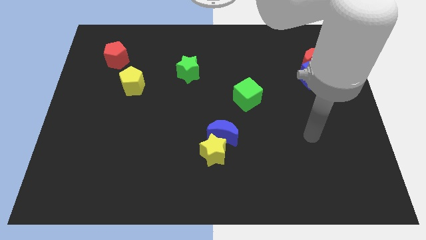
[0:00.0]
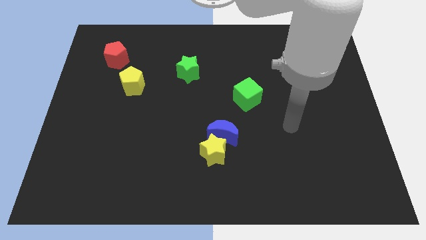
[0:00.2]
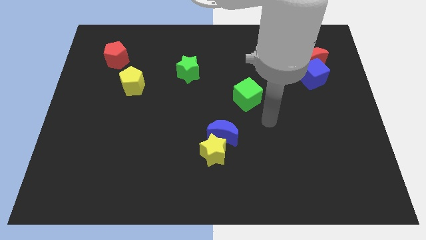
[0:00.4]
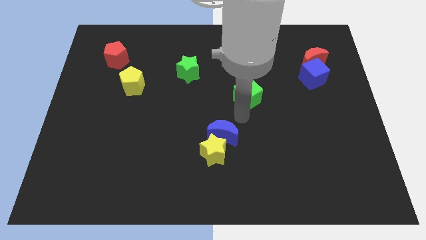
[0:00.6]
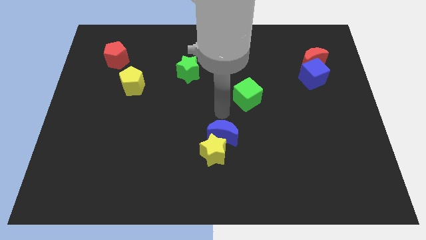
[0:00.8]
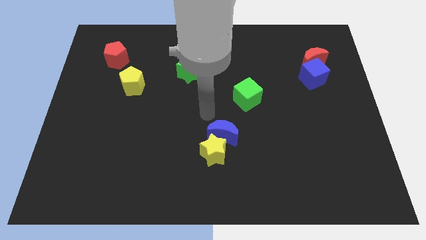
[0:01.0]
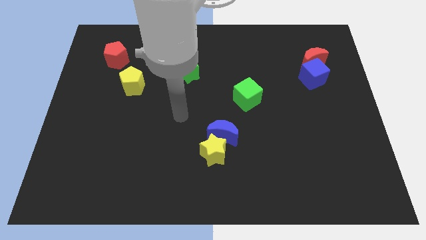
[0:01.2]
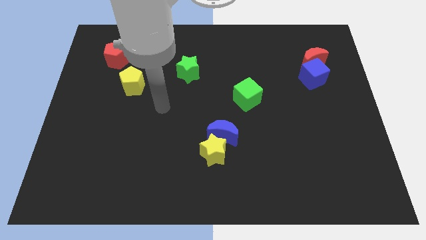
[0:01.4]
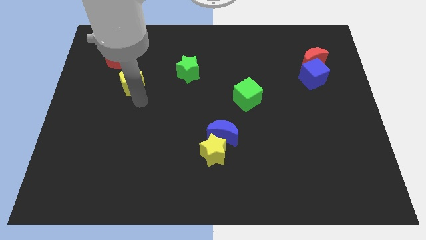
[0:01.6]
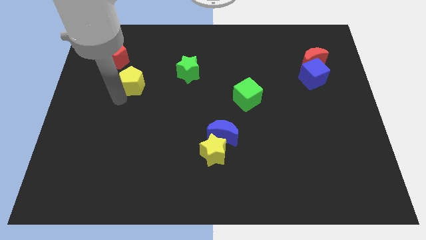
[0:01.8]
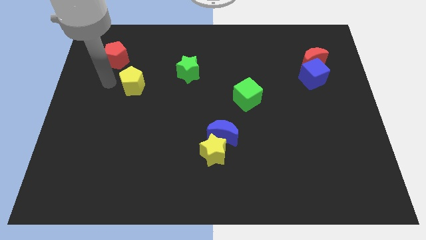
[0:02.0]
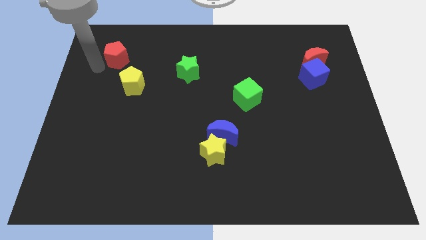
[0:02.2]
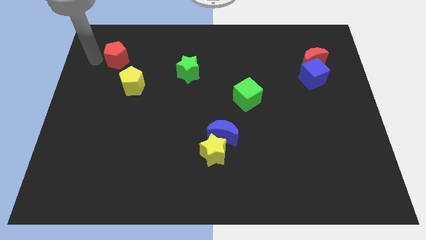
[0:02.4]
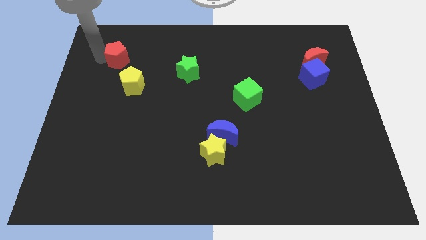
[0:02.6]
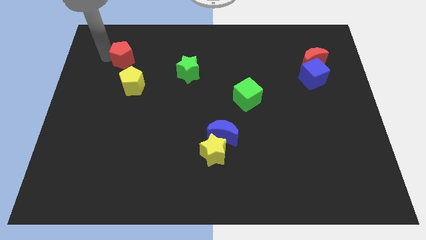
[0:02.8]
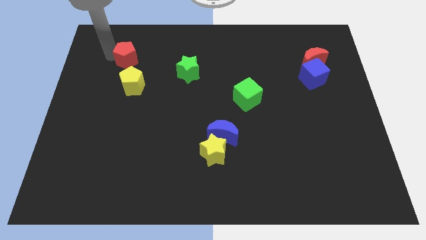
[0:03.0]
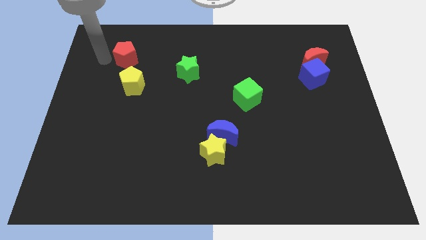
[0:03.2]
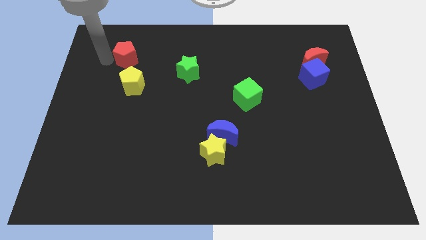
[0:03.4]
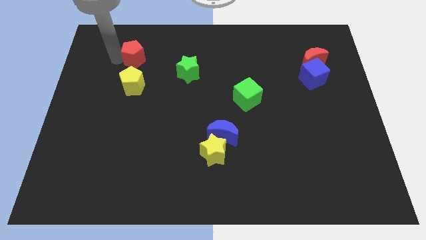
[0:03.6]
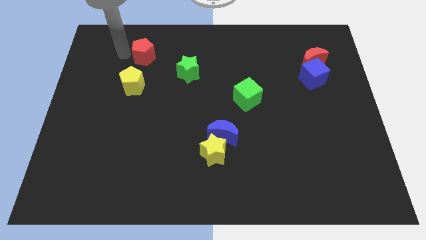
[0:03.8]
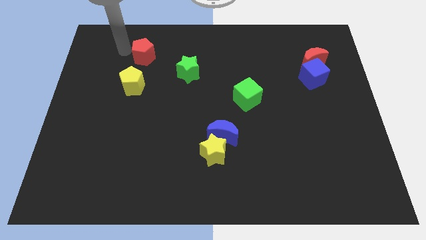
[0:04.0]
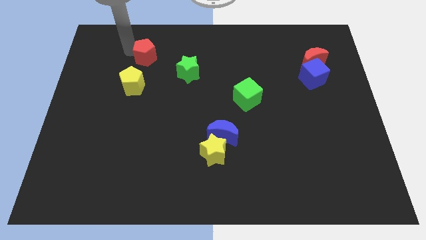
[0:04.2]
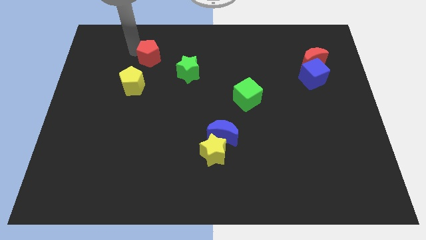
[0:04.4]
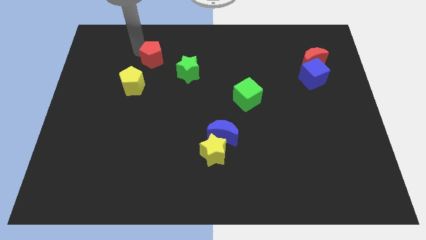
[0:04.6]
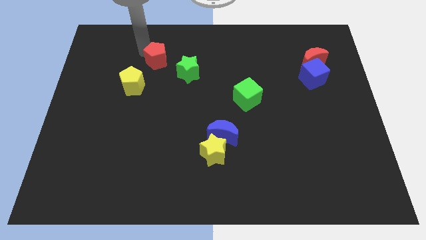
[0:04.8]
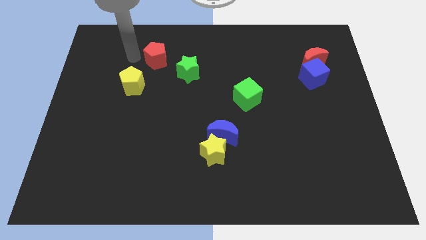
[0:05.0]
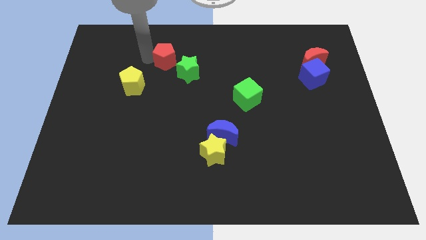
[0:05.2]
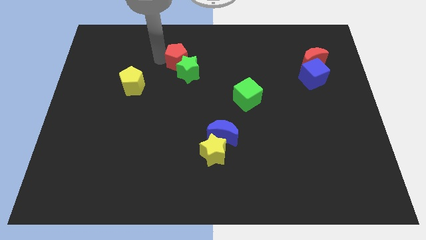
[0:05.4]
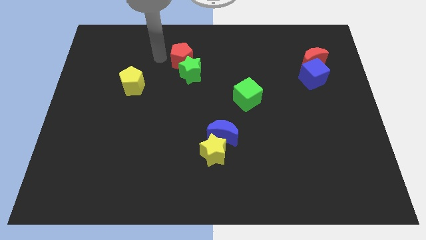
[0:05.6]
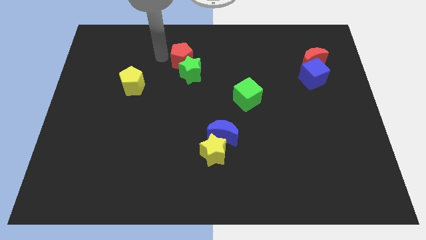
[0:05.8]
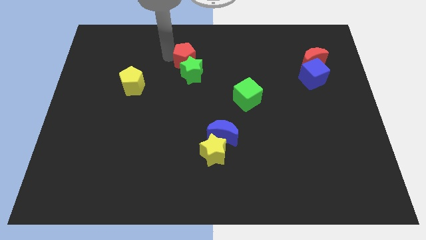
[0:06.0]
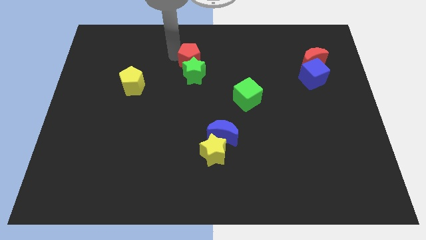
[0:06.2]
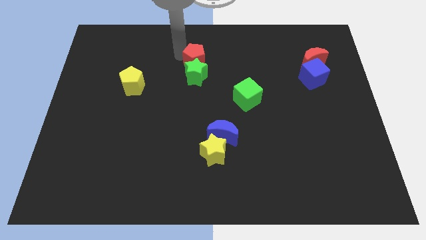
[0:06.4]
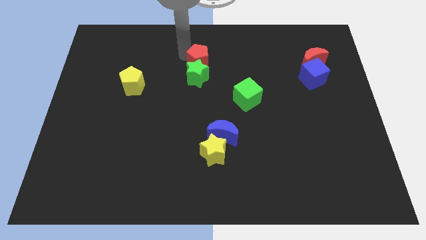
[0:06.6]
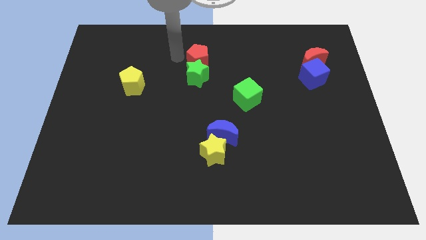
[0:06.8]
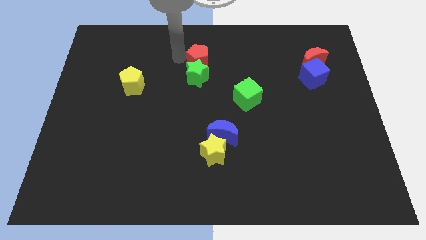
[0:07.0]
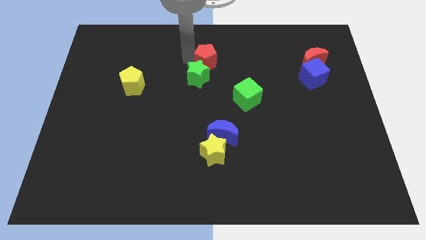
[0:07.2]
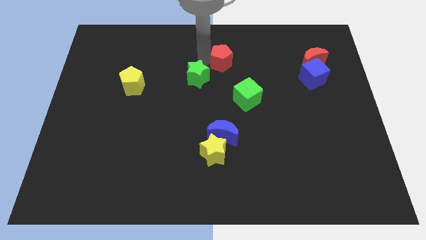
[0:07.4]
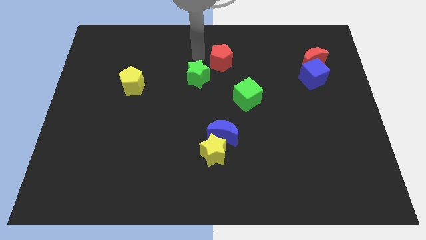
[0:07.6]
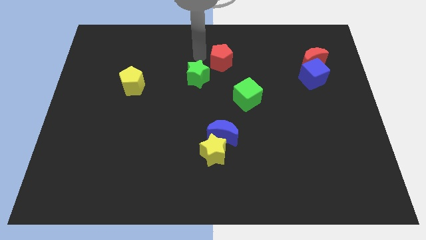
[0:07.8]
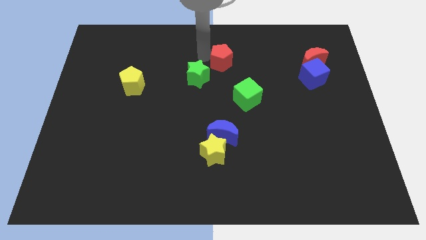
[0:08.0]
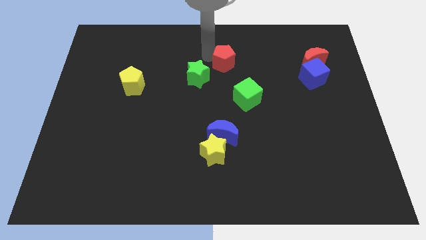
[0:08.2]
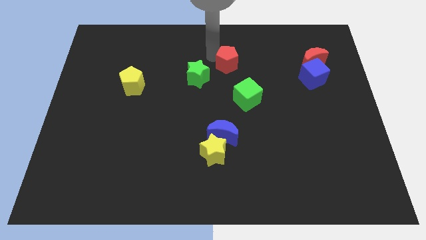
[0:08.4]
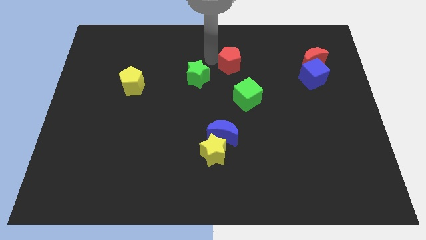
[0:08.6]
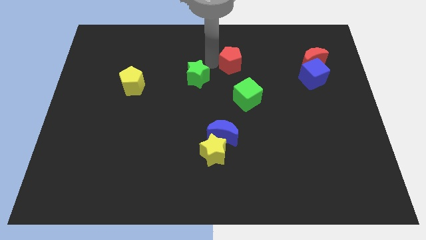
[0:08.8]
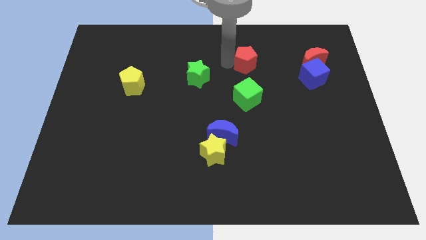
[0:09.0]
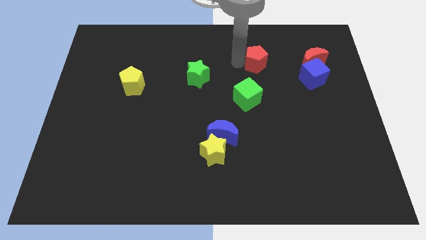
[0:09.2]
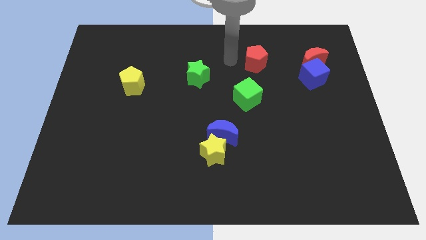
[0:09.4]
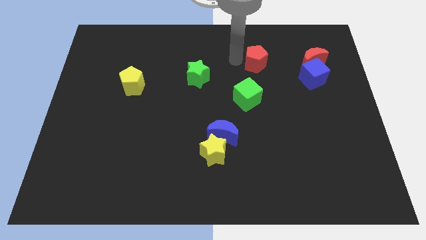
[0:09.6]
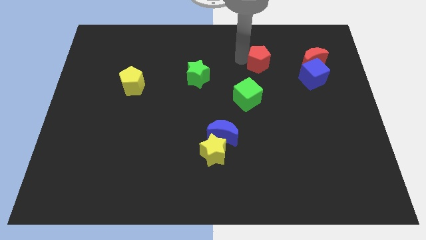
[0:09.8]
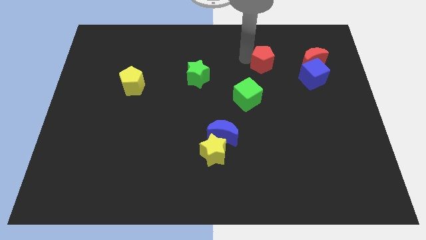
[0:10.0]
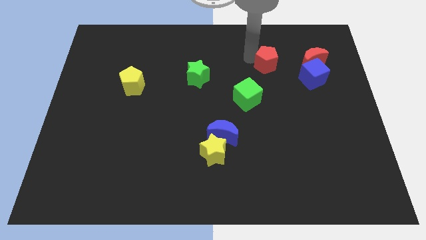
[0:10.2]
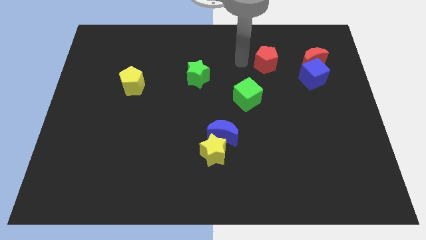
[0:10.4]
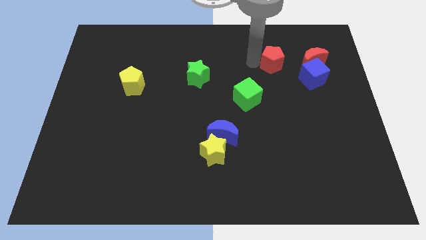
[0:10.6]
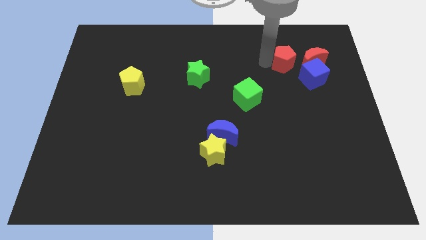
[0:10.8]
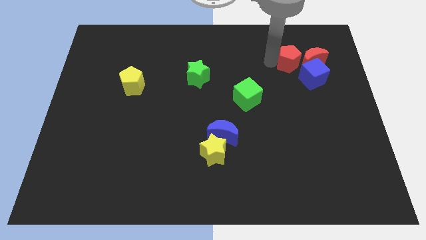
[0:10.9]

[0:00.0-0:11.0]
move the red pentagon close to the red moon

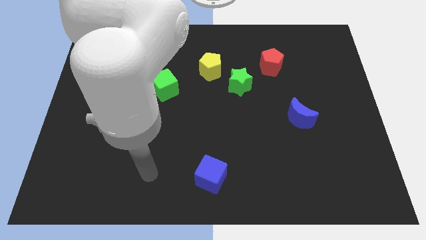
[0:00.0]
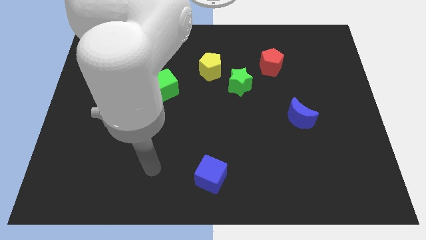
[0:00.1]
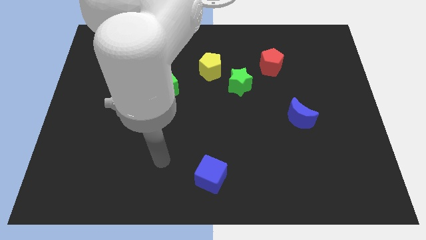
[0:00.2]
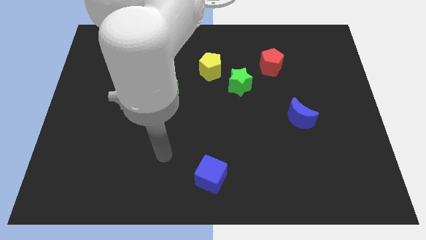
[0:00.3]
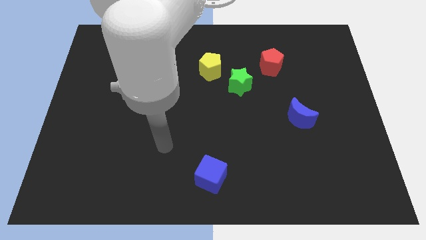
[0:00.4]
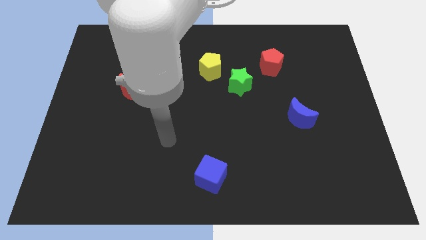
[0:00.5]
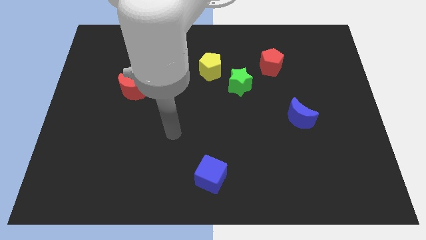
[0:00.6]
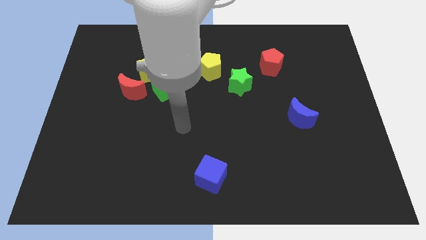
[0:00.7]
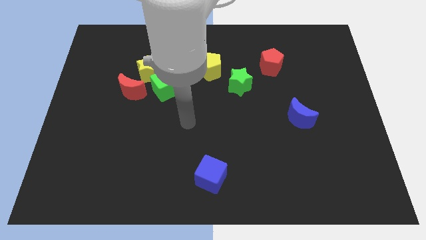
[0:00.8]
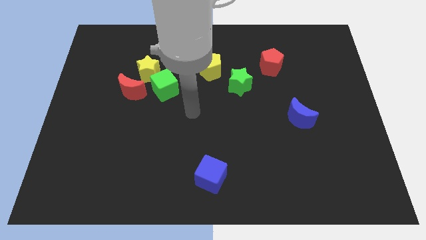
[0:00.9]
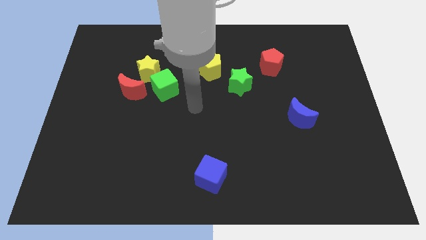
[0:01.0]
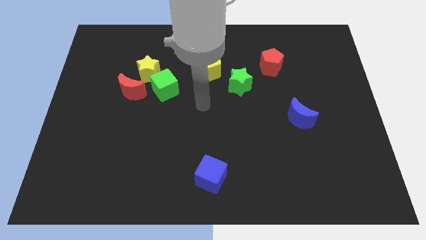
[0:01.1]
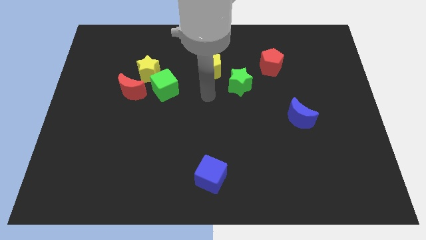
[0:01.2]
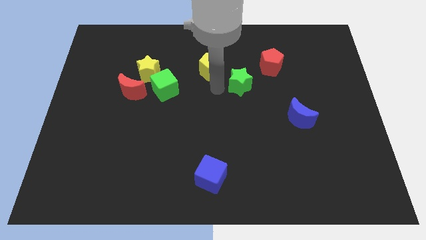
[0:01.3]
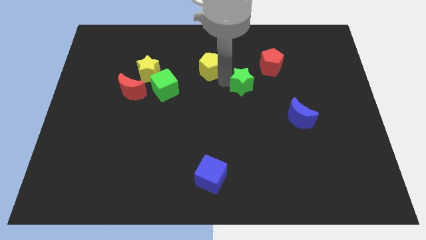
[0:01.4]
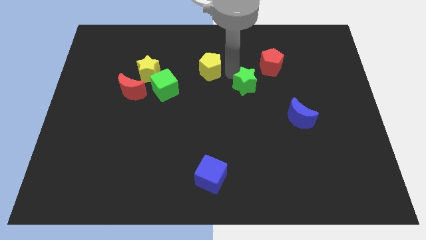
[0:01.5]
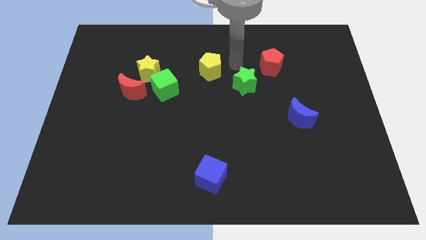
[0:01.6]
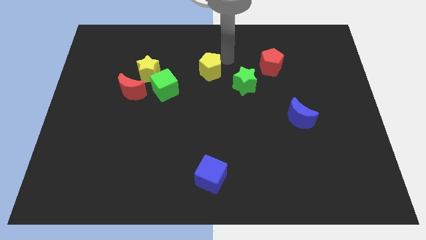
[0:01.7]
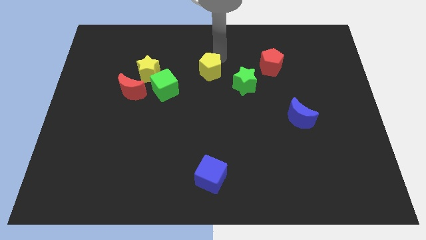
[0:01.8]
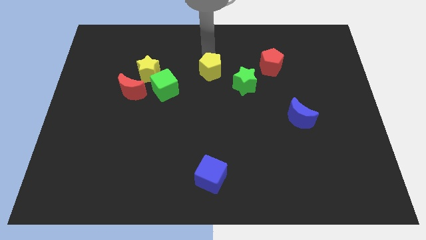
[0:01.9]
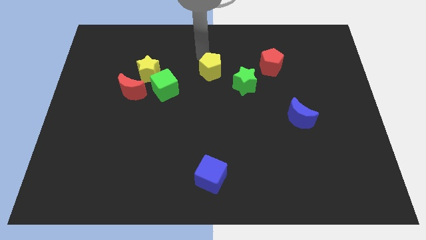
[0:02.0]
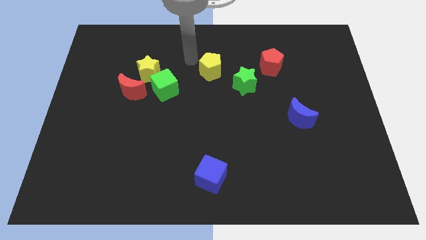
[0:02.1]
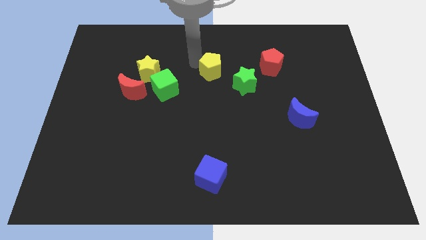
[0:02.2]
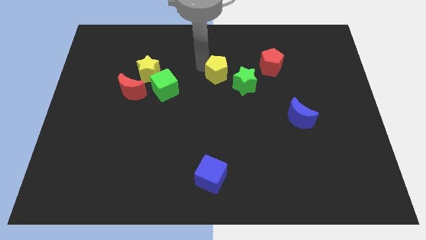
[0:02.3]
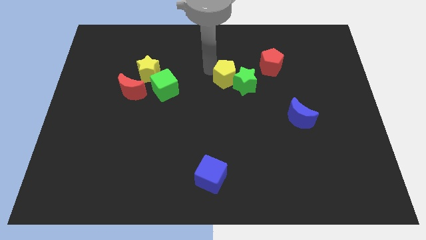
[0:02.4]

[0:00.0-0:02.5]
put the yellow pentagon next to the green star
